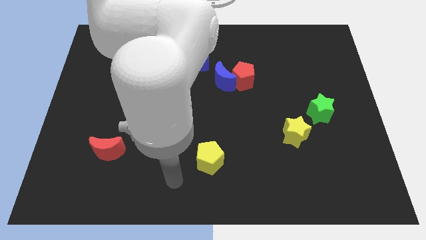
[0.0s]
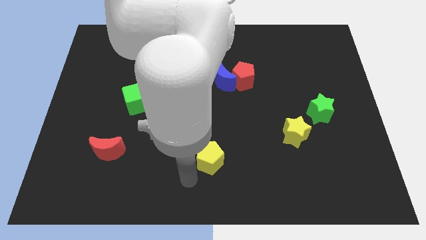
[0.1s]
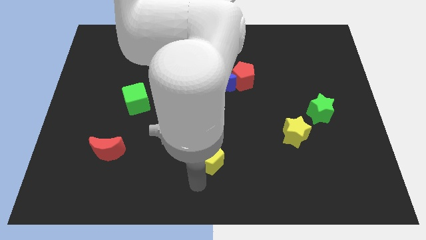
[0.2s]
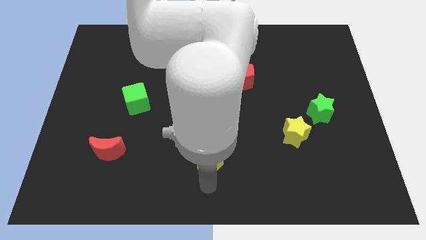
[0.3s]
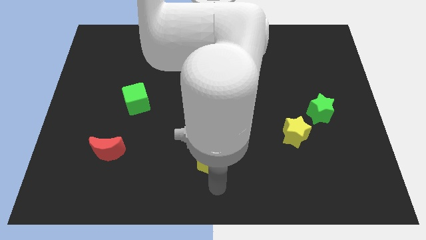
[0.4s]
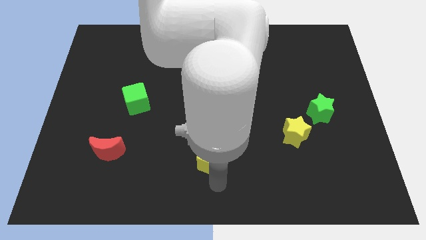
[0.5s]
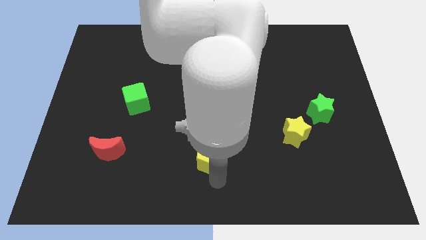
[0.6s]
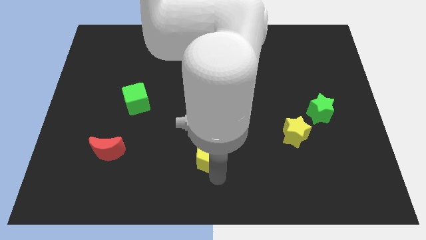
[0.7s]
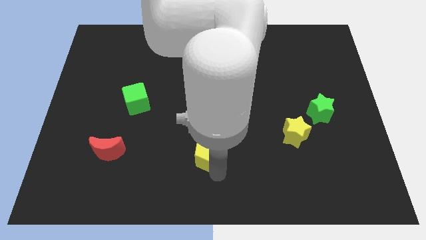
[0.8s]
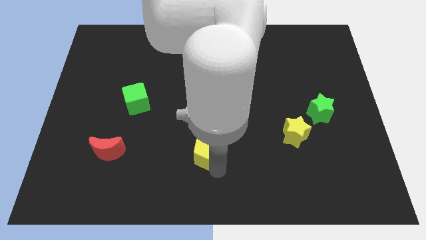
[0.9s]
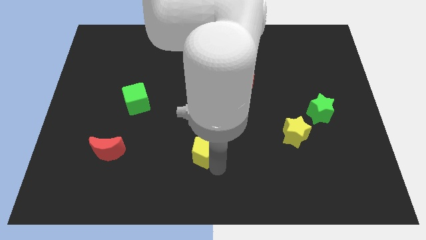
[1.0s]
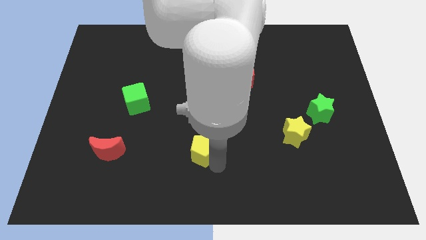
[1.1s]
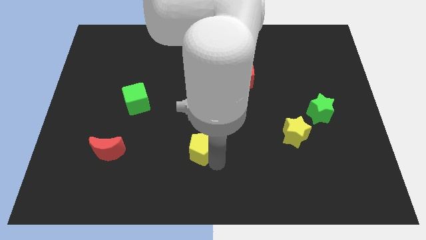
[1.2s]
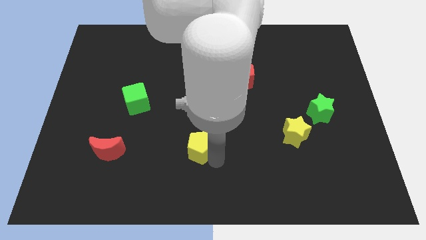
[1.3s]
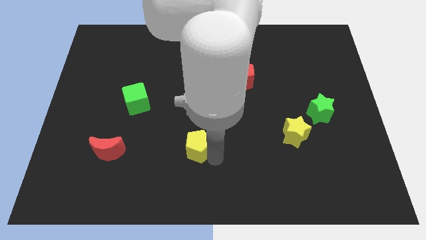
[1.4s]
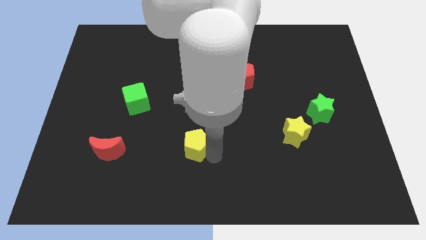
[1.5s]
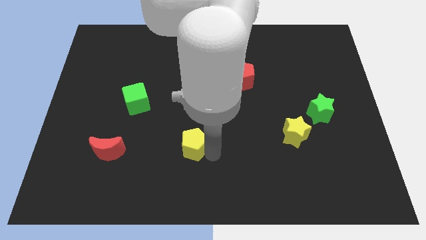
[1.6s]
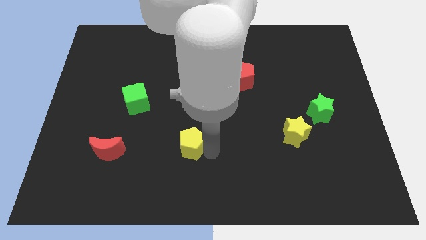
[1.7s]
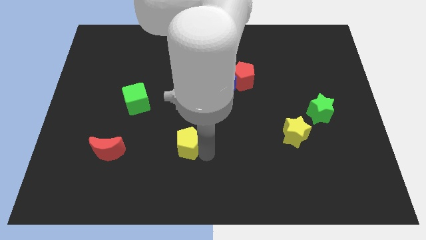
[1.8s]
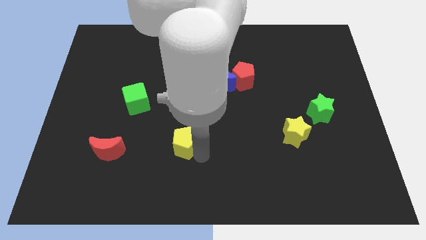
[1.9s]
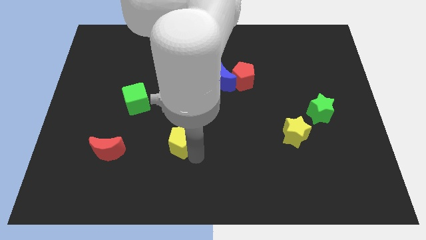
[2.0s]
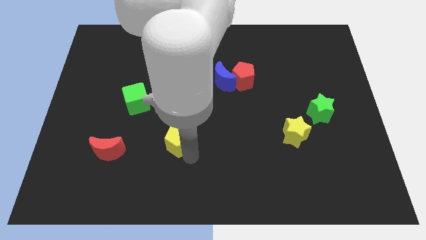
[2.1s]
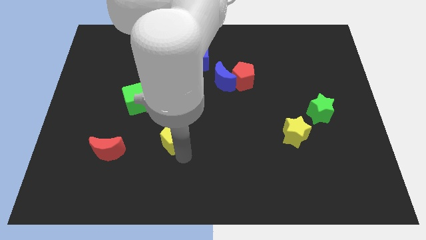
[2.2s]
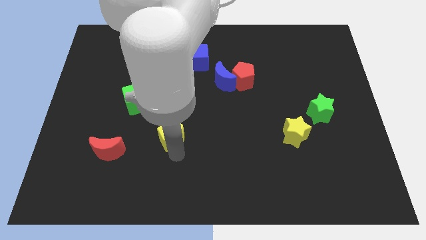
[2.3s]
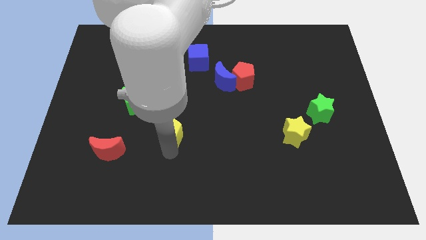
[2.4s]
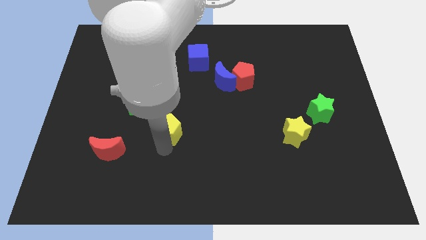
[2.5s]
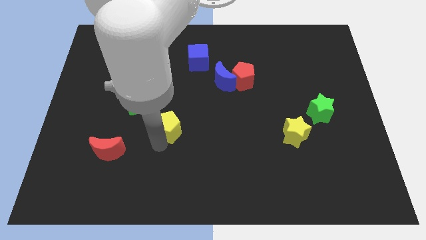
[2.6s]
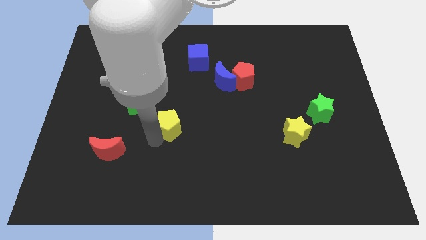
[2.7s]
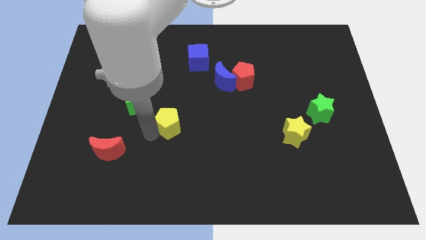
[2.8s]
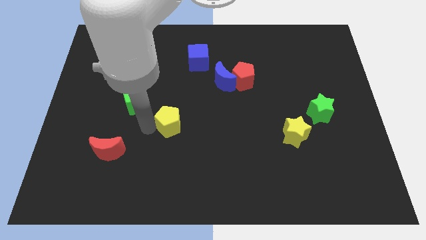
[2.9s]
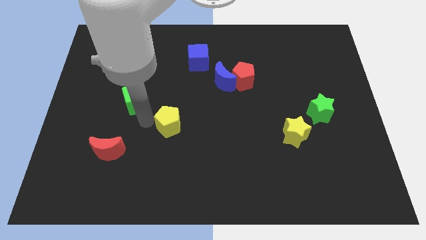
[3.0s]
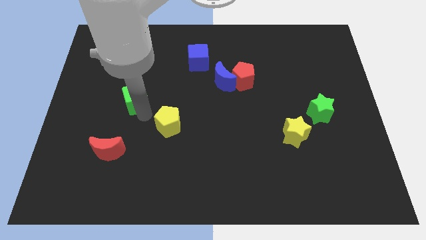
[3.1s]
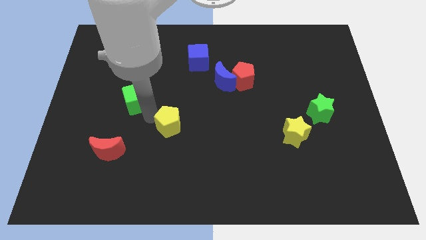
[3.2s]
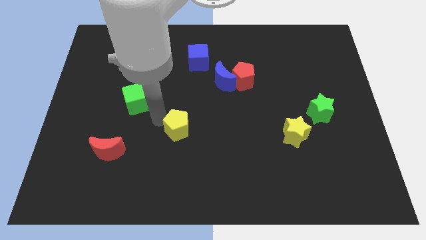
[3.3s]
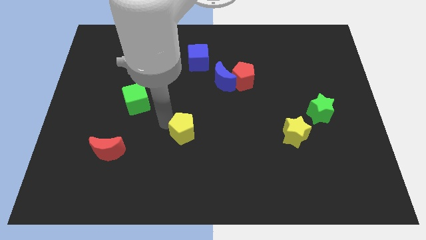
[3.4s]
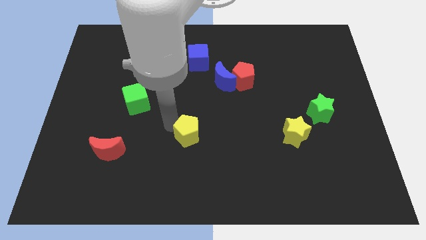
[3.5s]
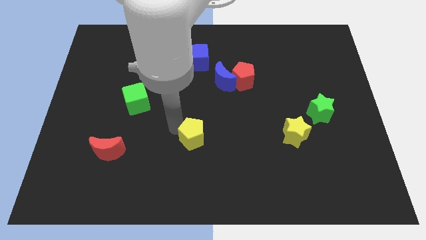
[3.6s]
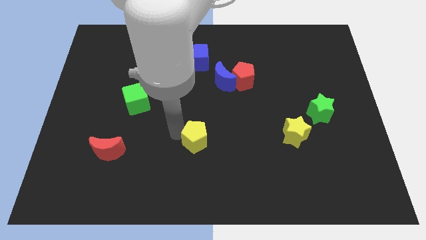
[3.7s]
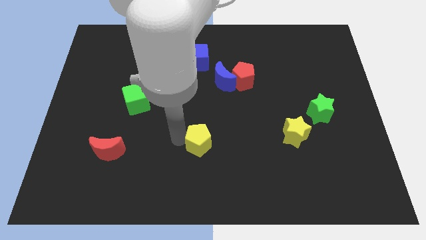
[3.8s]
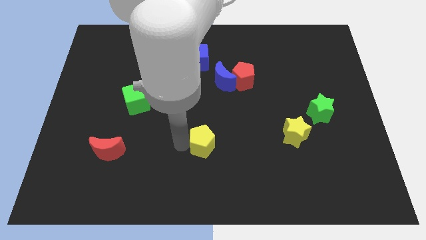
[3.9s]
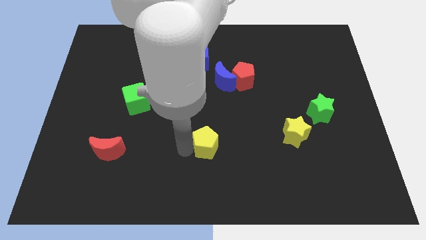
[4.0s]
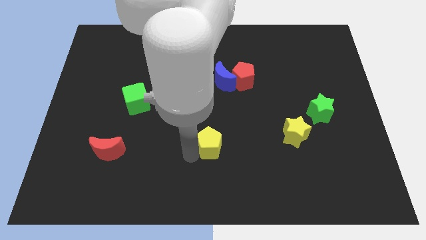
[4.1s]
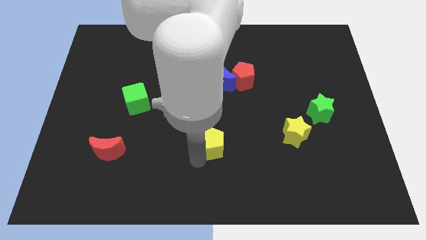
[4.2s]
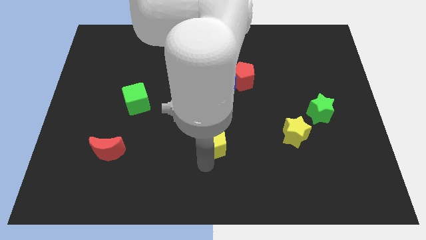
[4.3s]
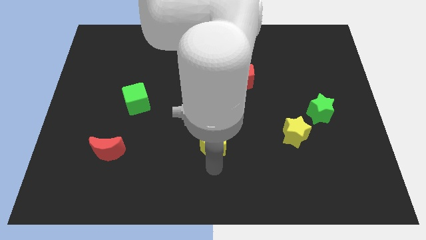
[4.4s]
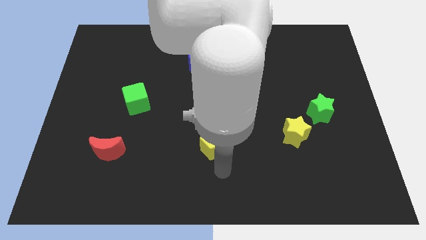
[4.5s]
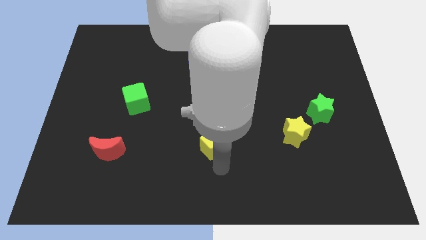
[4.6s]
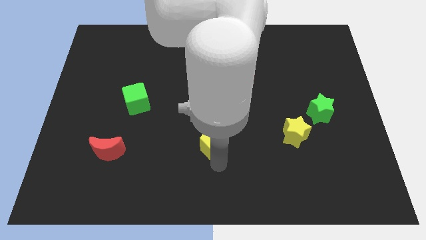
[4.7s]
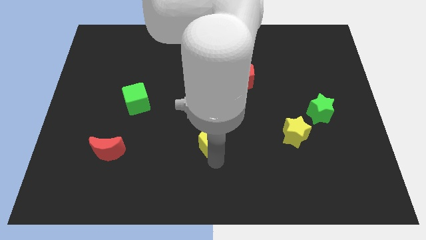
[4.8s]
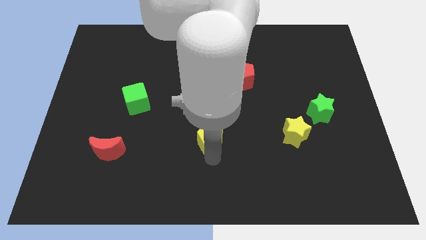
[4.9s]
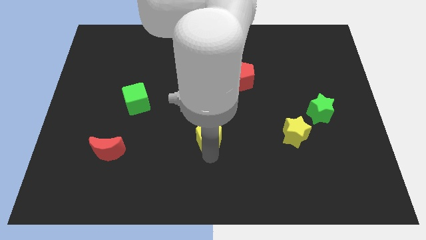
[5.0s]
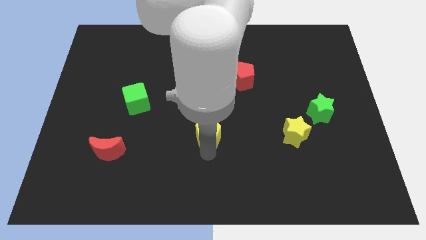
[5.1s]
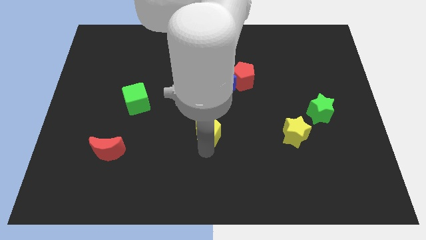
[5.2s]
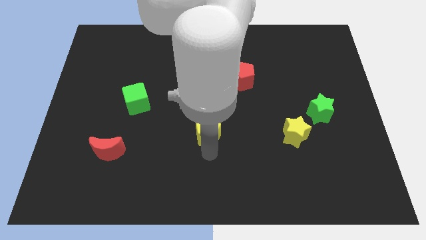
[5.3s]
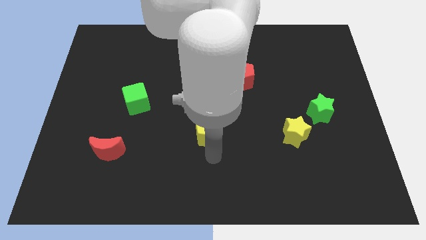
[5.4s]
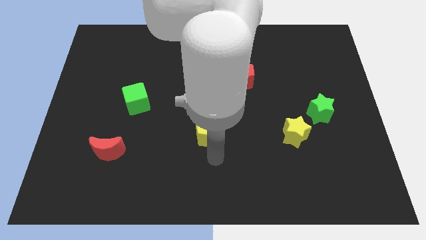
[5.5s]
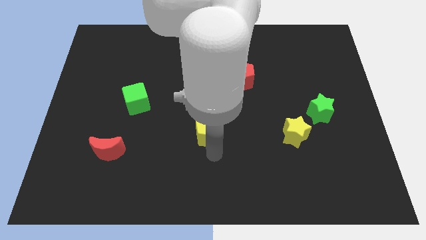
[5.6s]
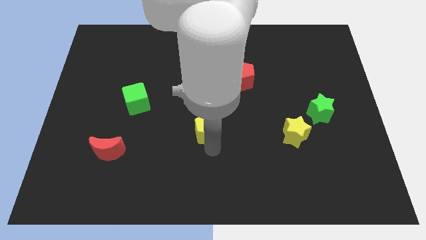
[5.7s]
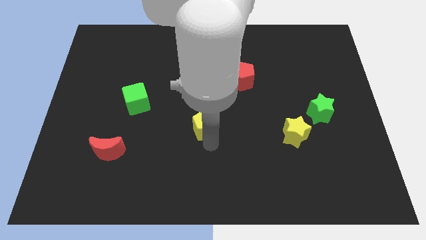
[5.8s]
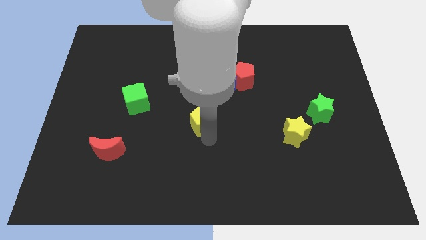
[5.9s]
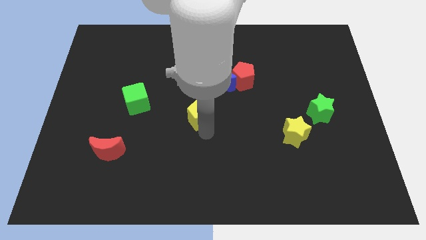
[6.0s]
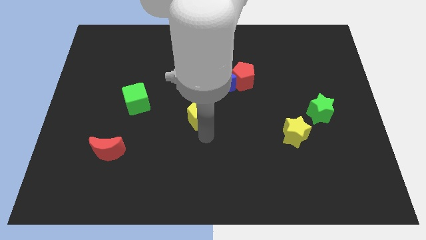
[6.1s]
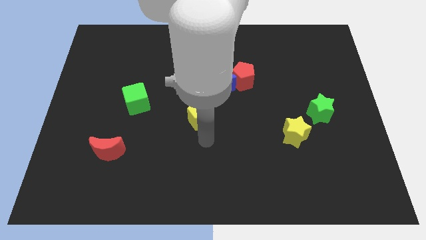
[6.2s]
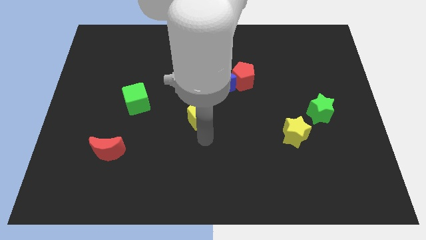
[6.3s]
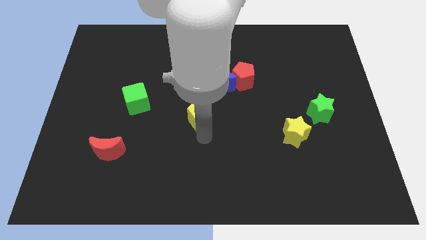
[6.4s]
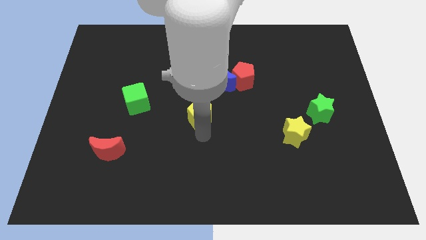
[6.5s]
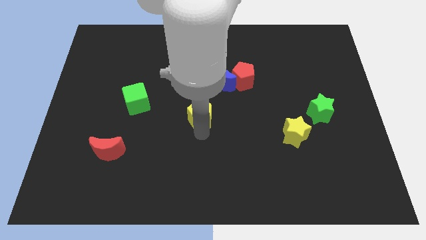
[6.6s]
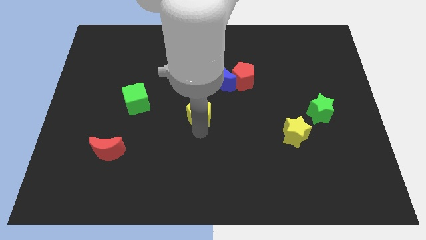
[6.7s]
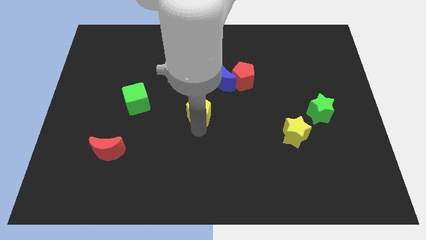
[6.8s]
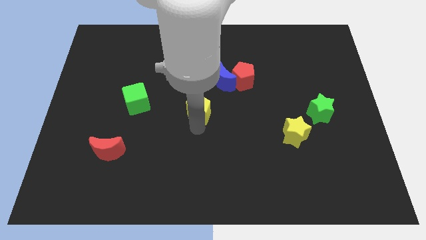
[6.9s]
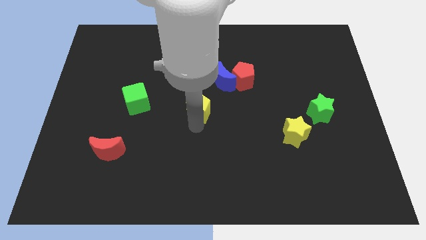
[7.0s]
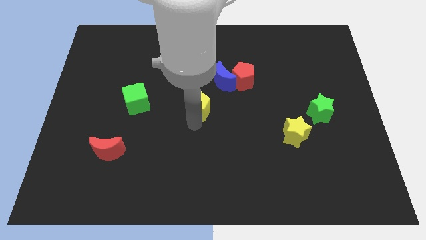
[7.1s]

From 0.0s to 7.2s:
slide the yellow pentagon below the blue cube

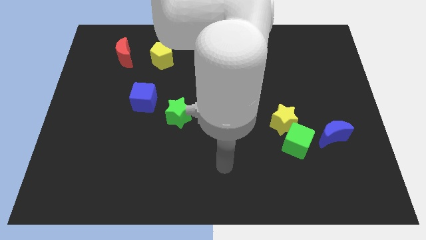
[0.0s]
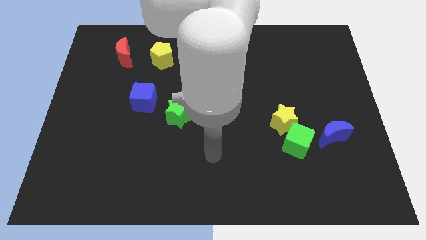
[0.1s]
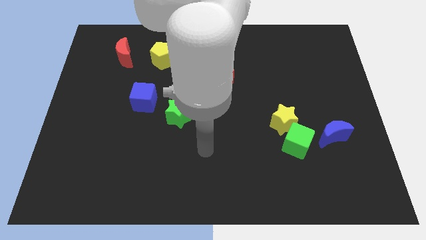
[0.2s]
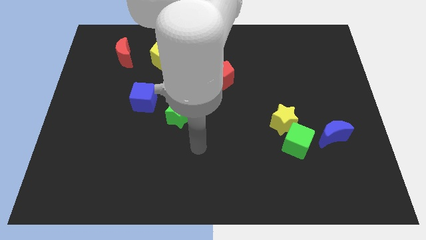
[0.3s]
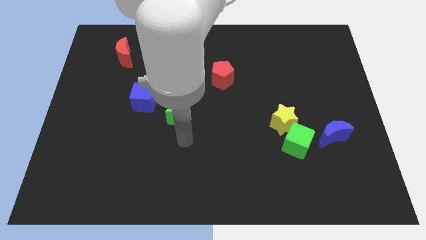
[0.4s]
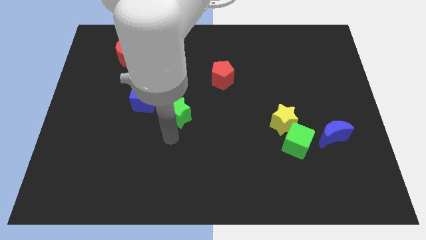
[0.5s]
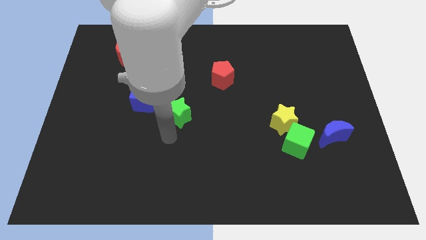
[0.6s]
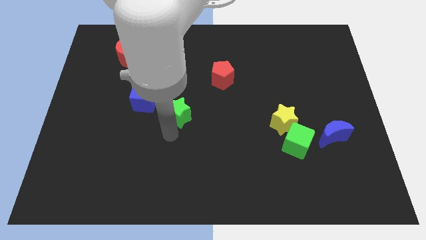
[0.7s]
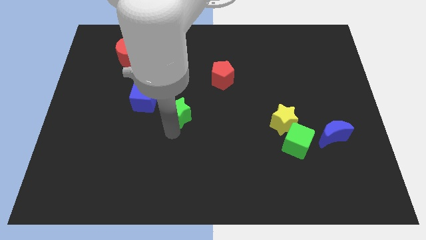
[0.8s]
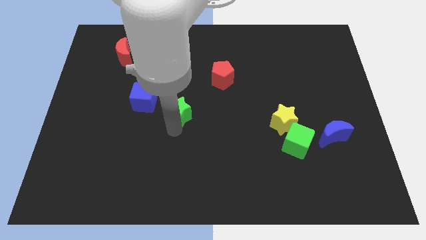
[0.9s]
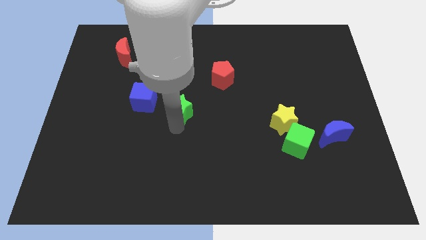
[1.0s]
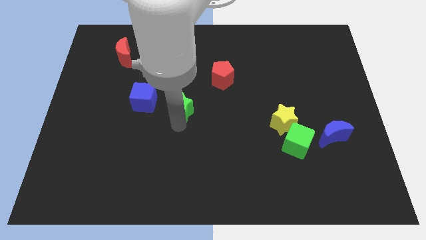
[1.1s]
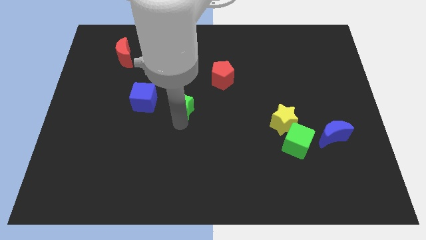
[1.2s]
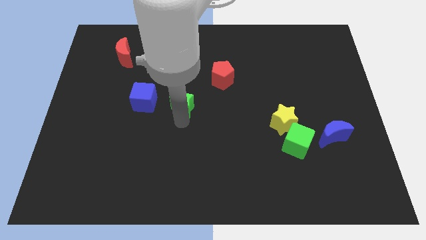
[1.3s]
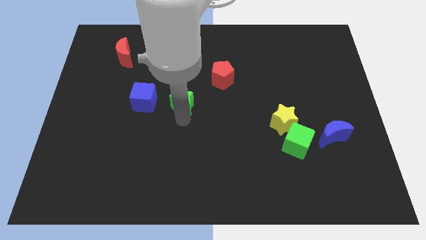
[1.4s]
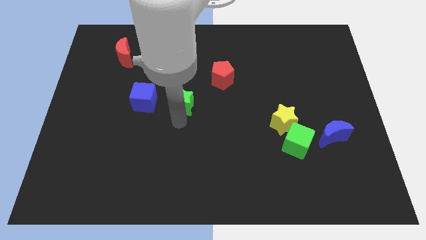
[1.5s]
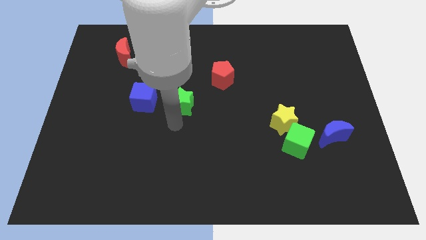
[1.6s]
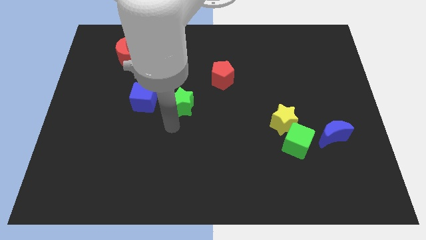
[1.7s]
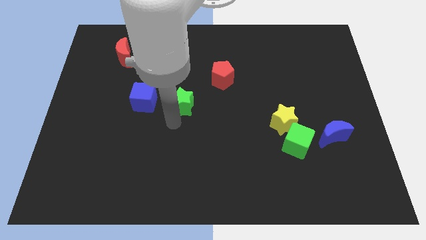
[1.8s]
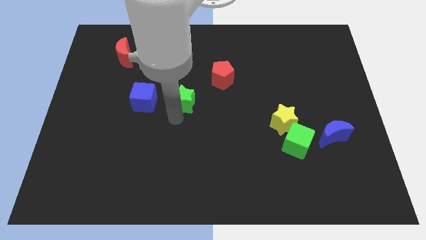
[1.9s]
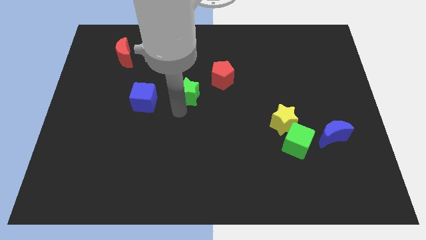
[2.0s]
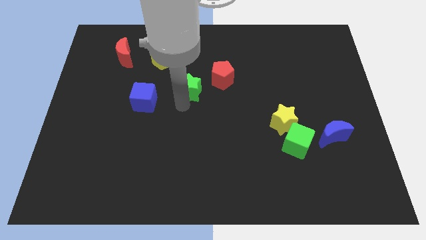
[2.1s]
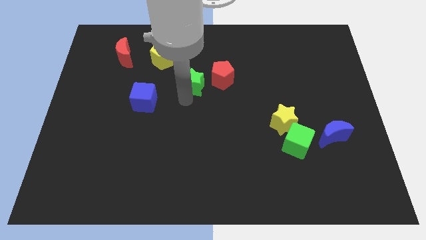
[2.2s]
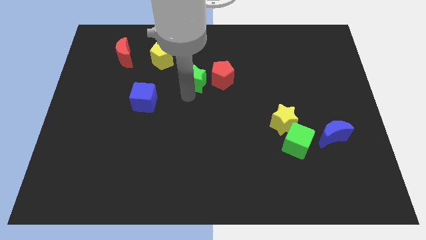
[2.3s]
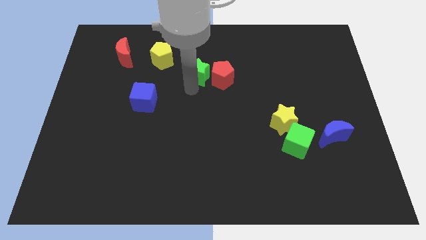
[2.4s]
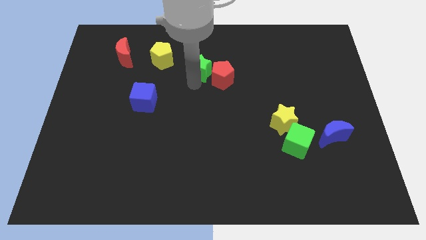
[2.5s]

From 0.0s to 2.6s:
slide the green star just right of the yellow pentagon
